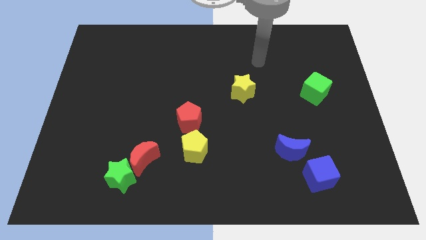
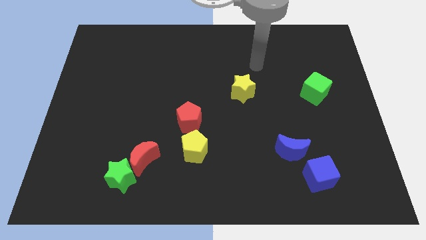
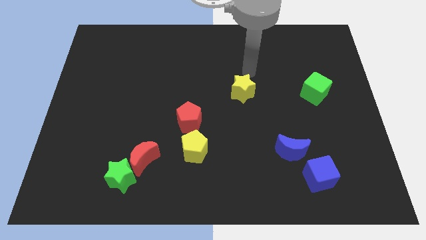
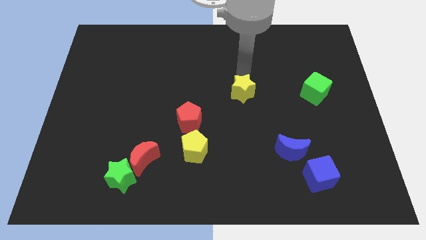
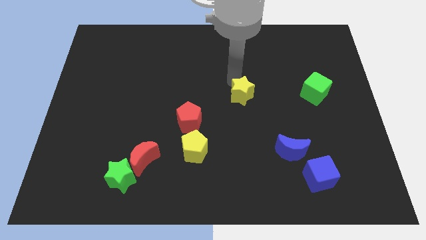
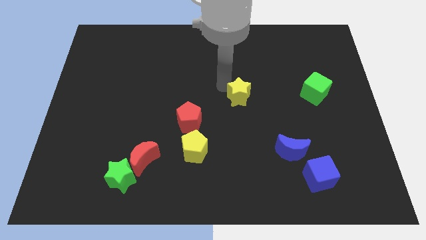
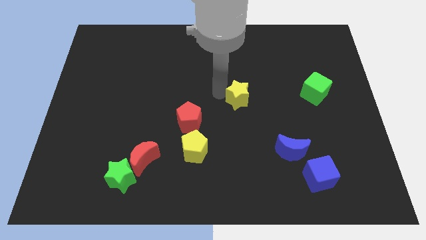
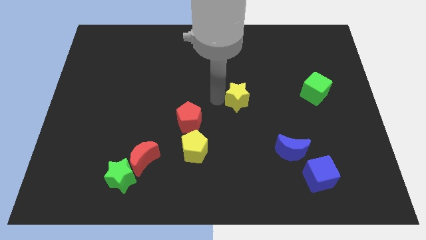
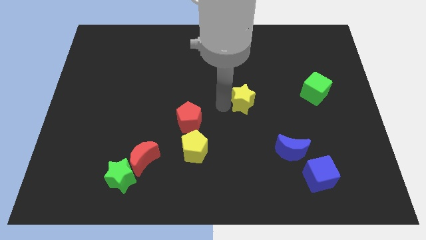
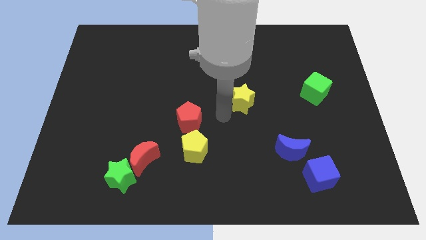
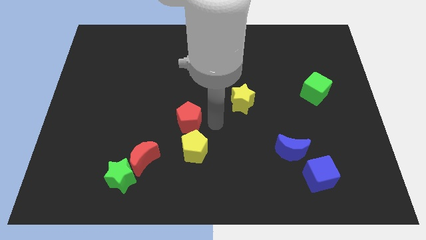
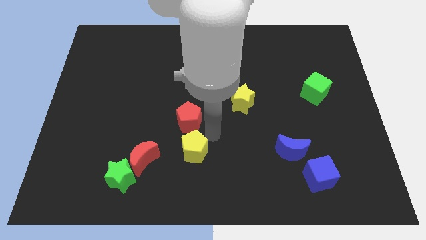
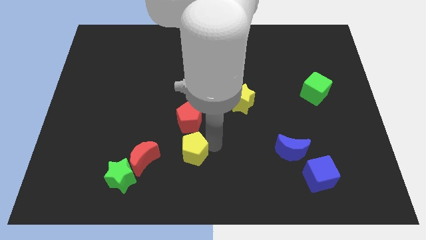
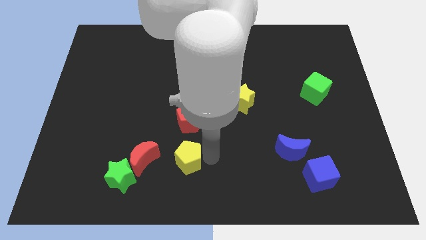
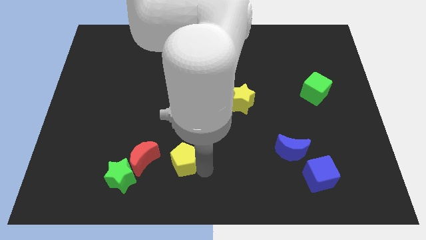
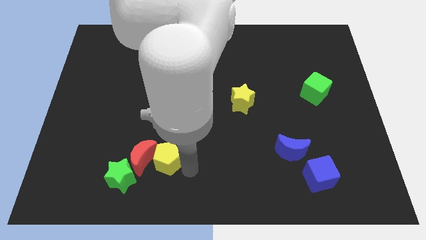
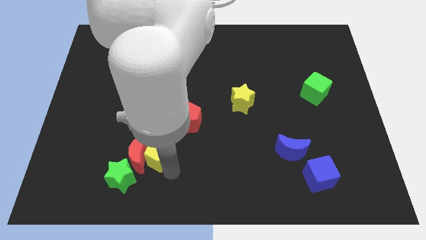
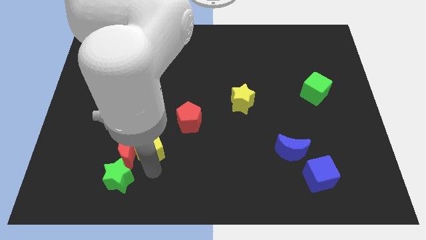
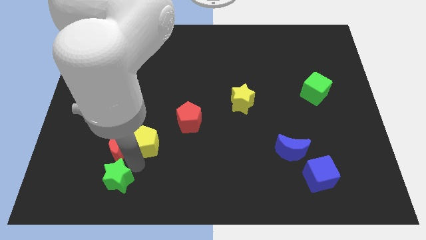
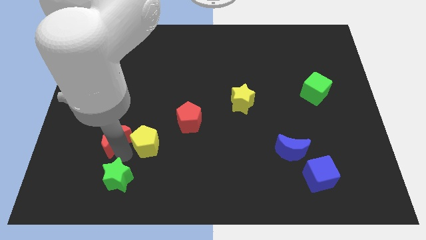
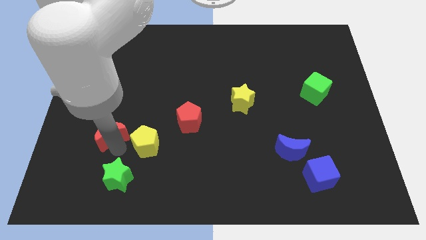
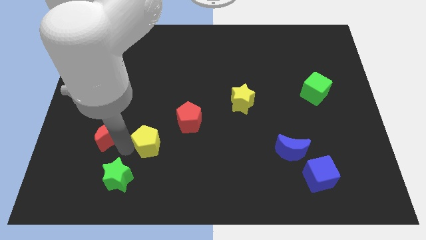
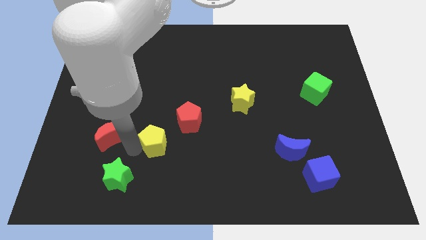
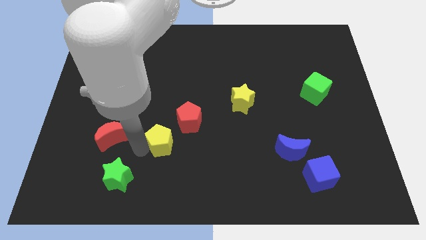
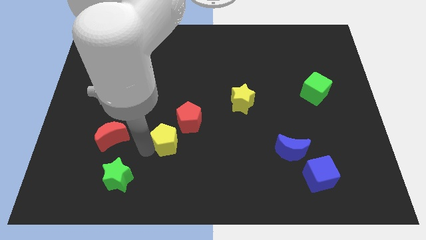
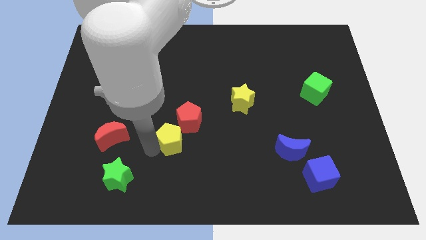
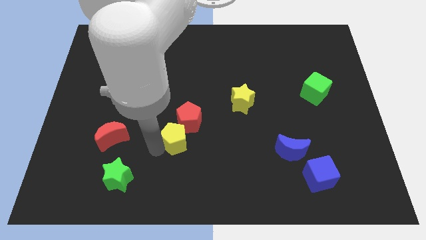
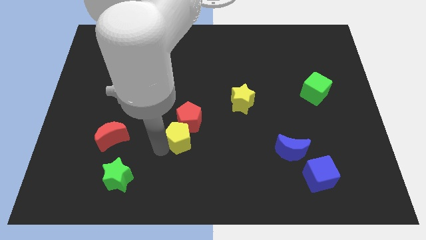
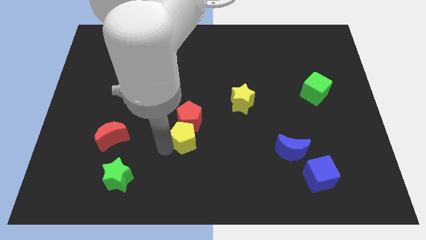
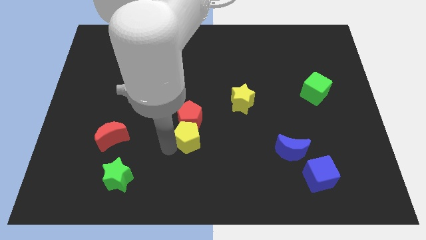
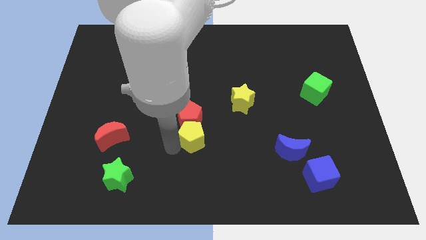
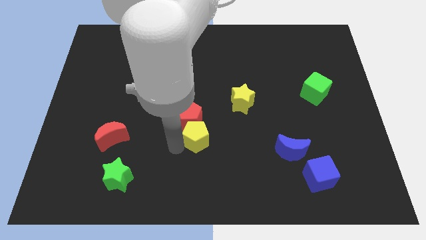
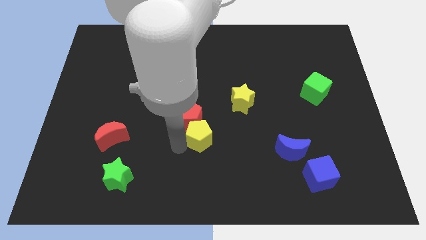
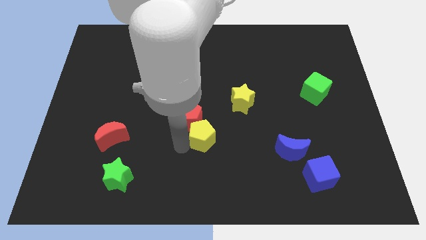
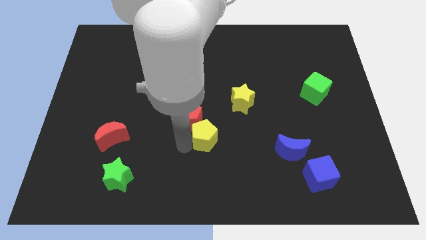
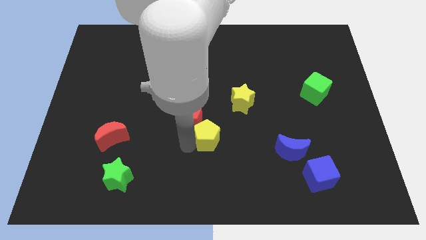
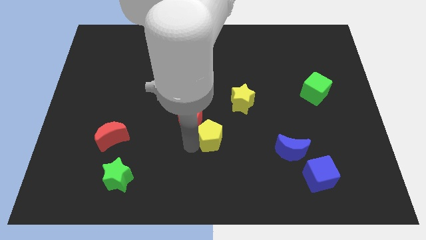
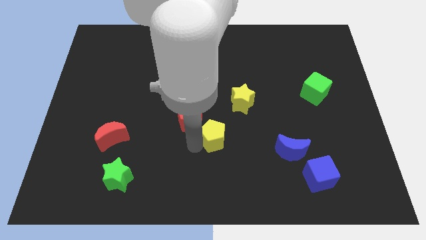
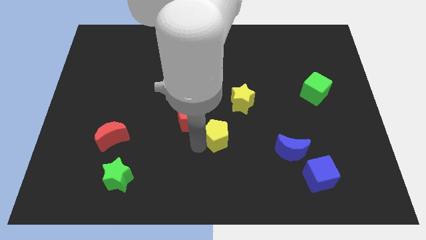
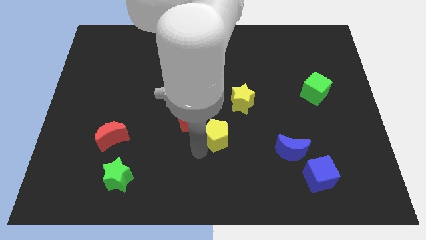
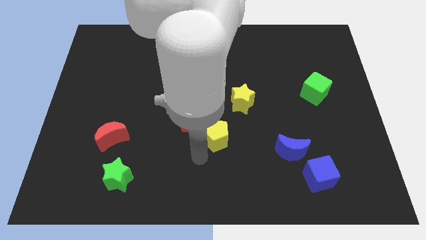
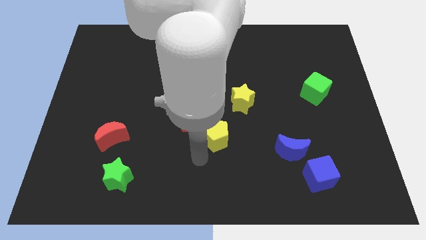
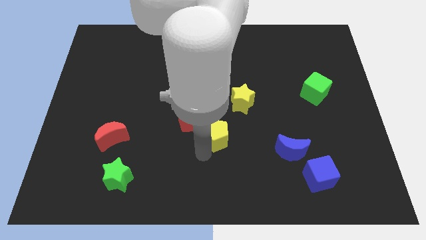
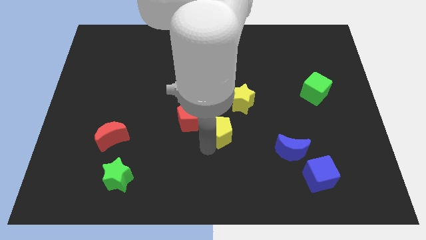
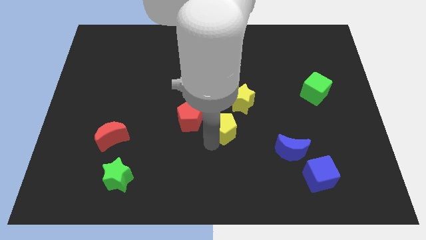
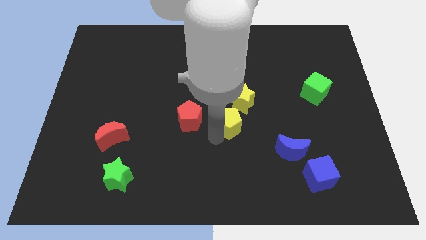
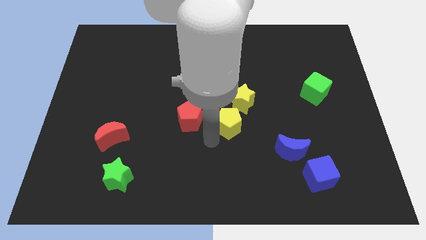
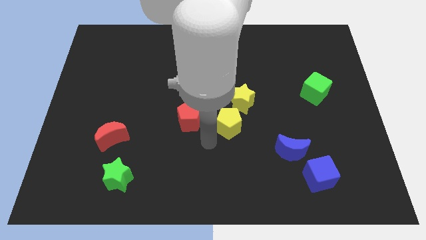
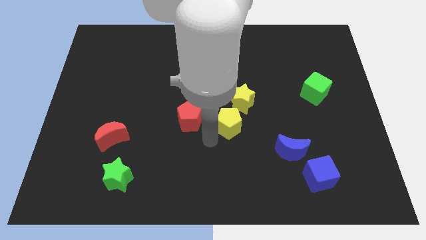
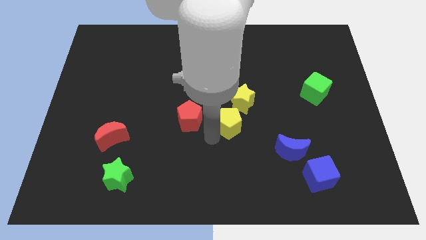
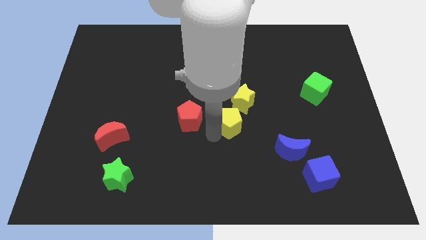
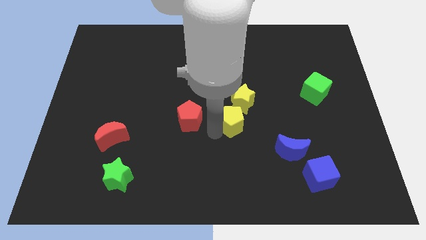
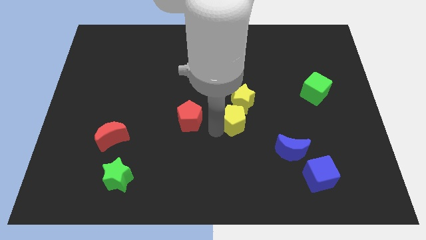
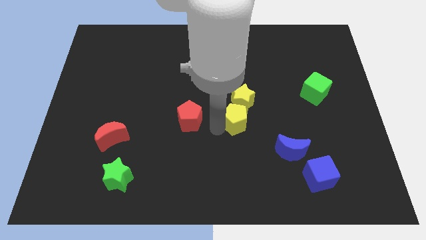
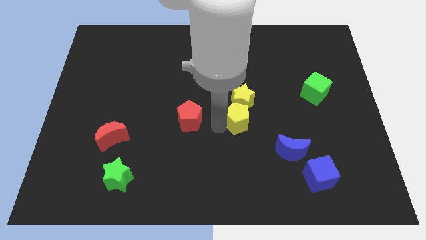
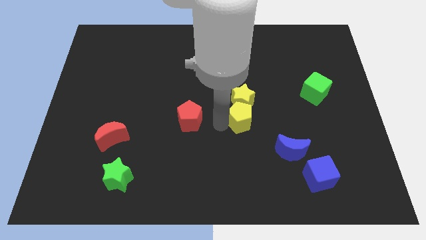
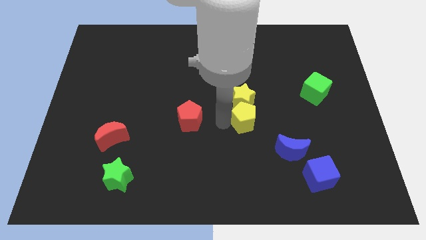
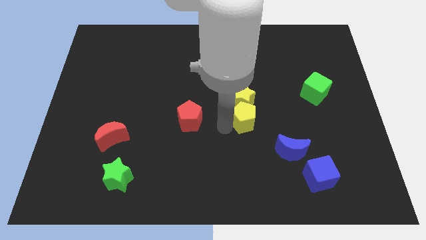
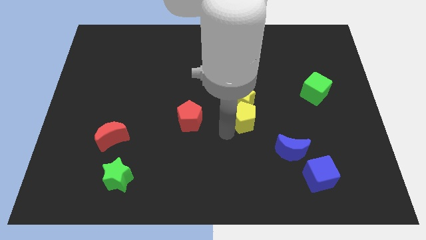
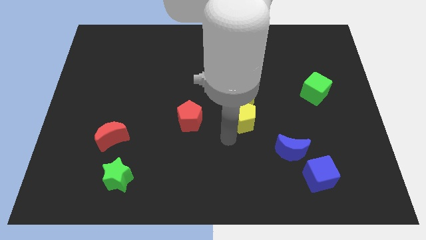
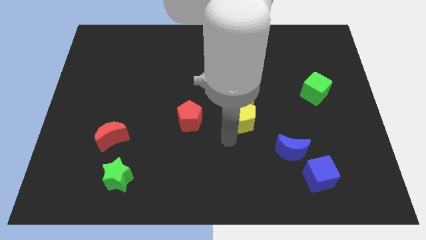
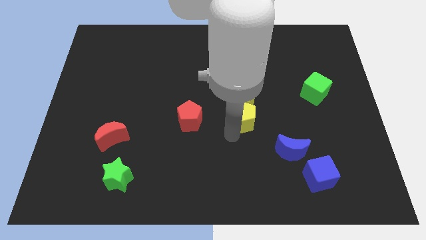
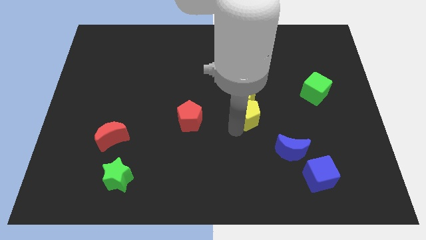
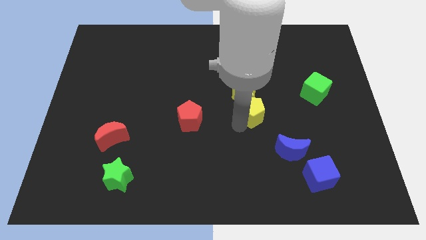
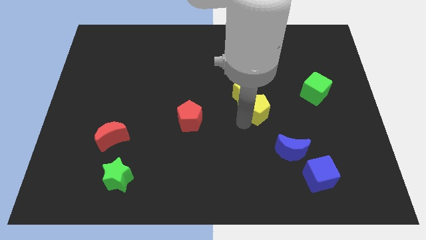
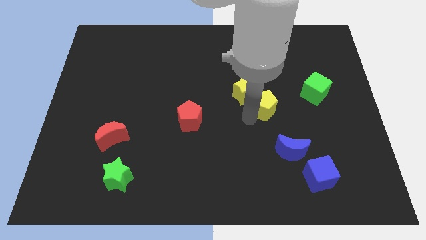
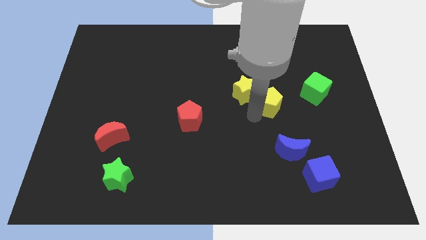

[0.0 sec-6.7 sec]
push the yellow pentagon diagonally upwards and to the right

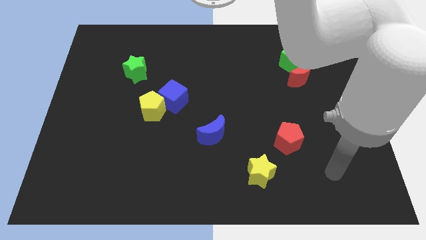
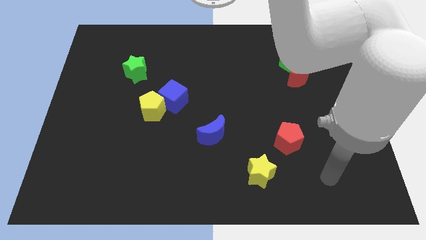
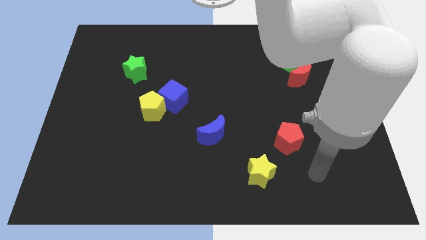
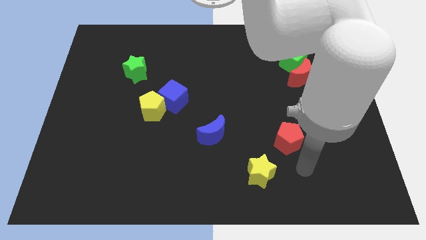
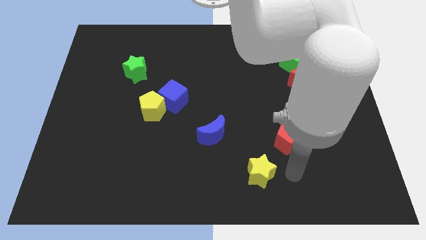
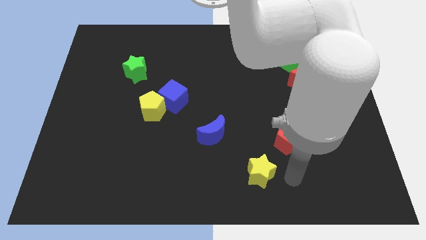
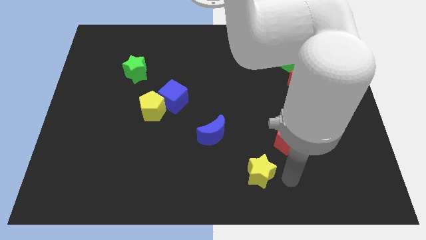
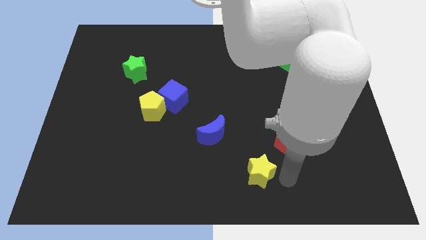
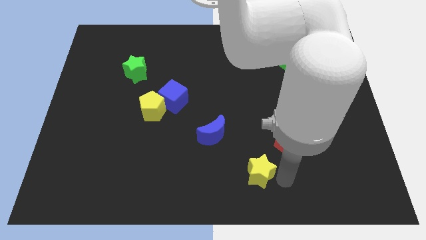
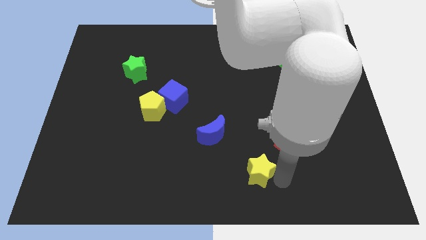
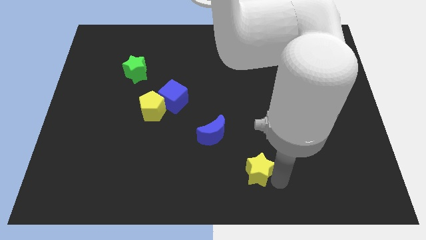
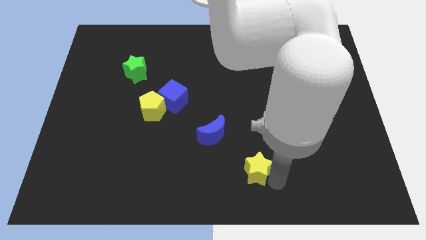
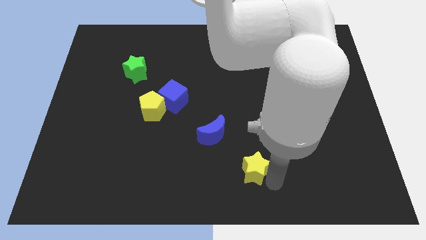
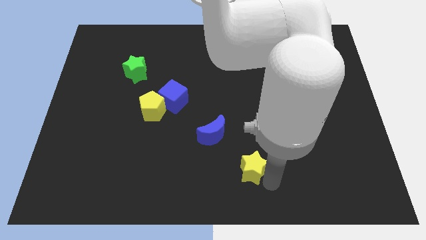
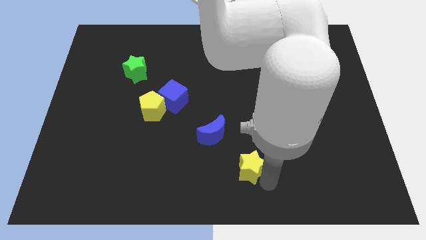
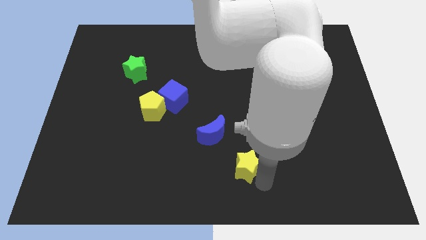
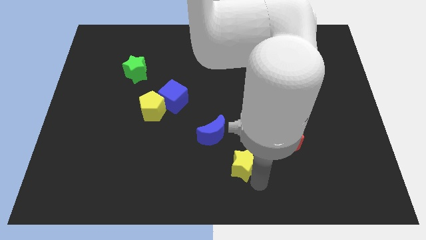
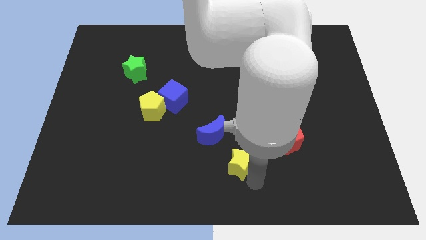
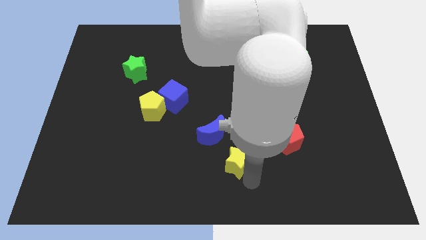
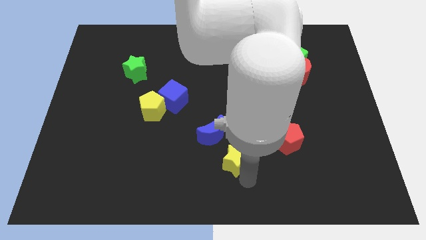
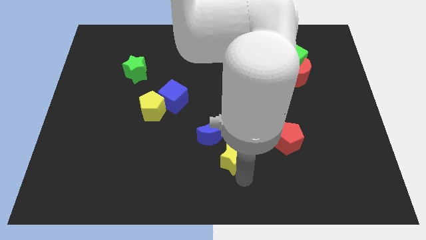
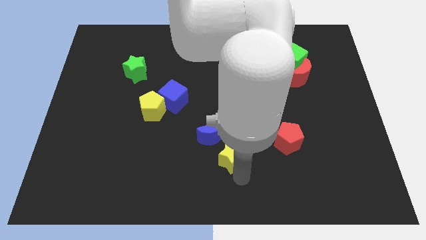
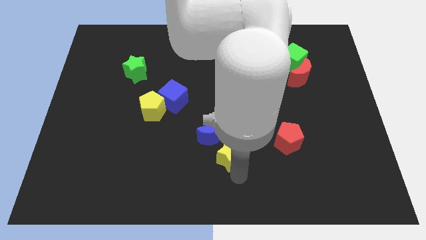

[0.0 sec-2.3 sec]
slightly slide the yellow star diagonally upwards and to the left
